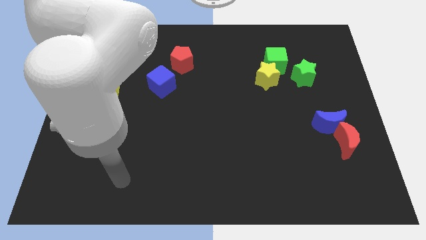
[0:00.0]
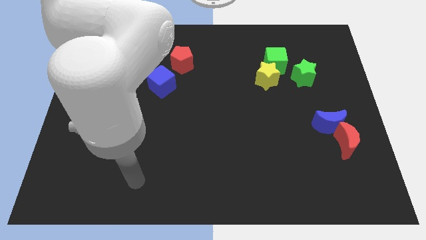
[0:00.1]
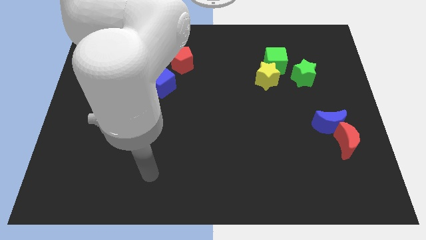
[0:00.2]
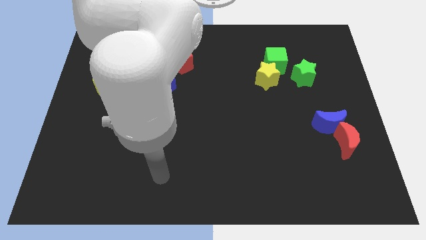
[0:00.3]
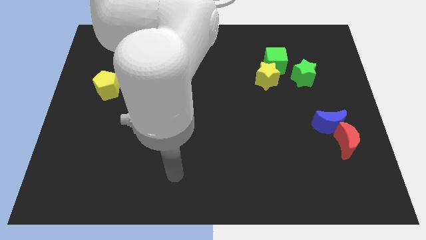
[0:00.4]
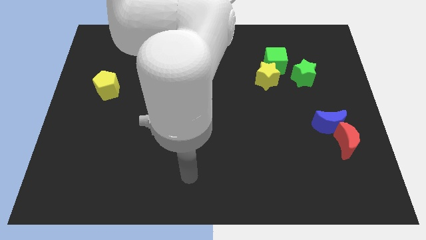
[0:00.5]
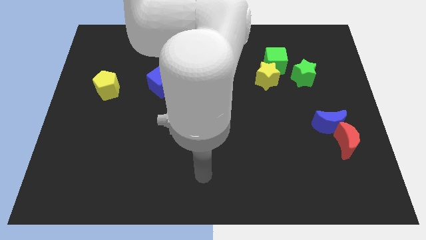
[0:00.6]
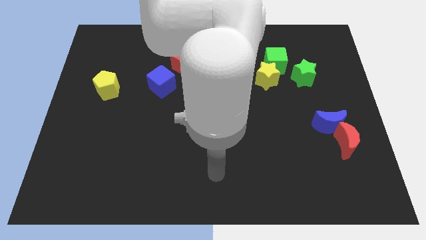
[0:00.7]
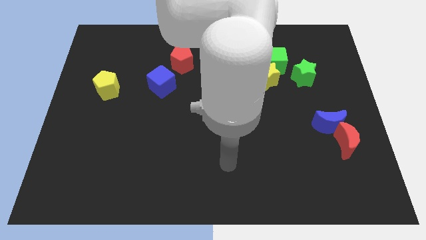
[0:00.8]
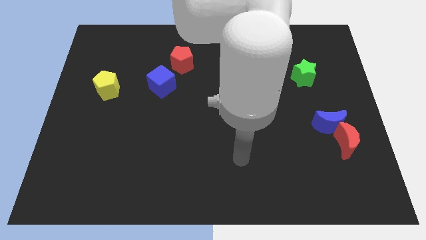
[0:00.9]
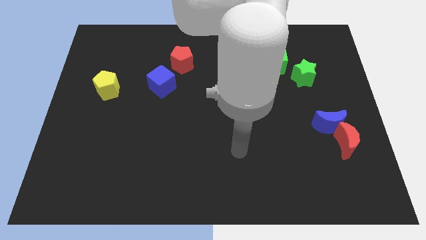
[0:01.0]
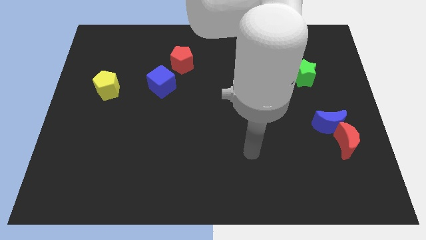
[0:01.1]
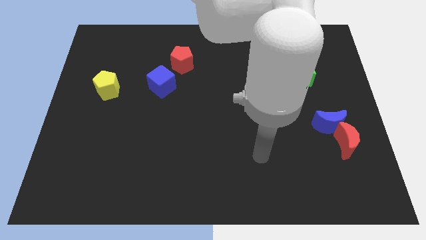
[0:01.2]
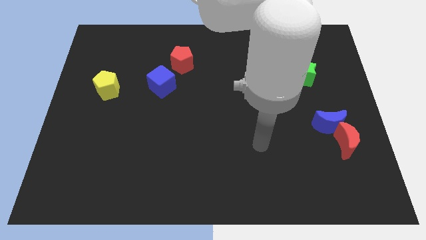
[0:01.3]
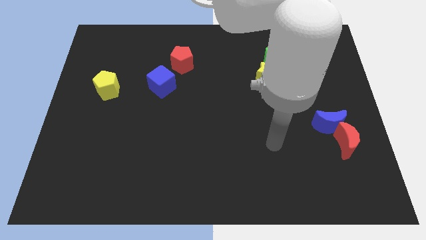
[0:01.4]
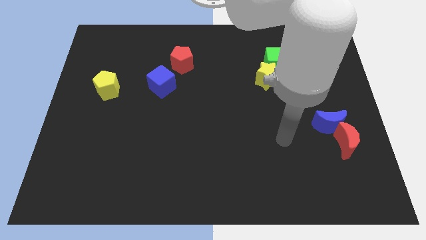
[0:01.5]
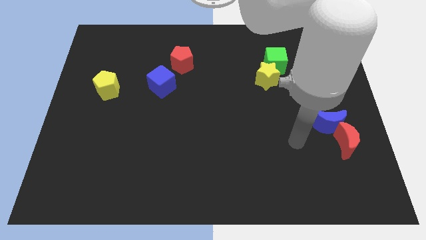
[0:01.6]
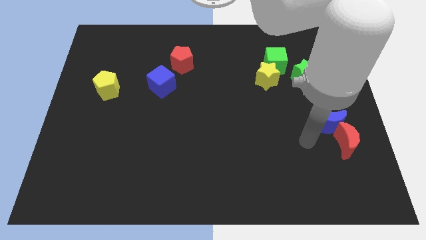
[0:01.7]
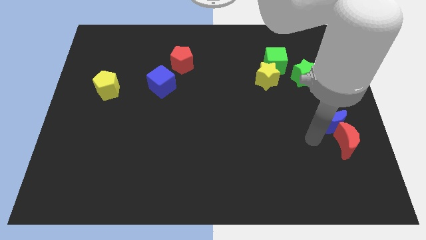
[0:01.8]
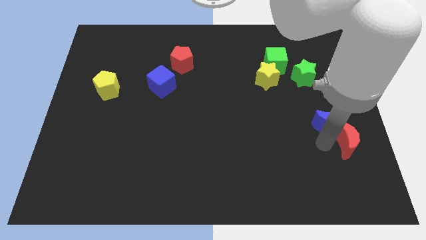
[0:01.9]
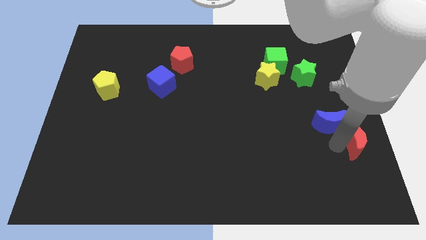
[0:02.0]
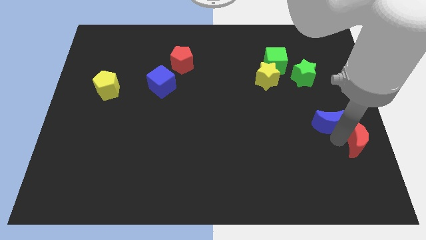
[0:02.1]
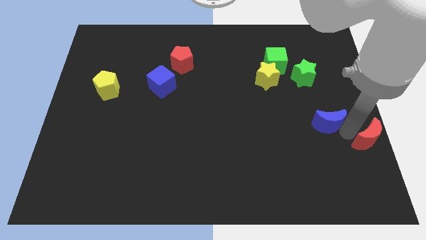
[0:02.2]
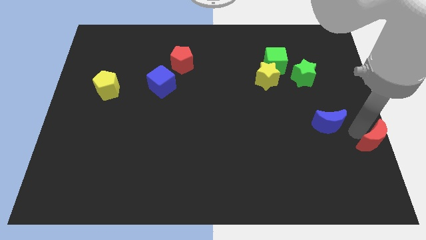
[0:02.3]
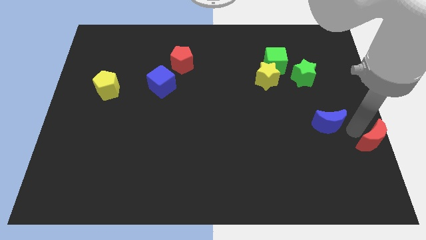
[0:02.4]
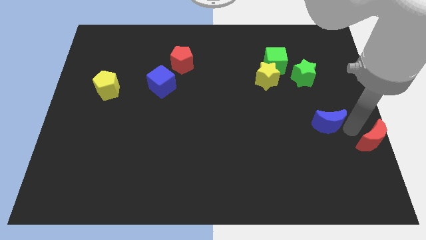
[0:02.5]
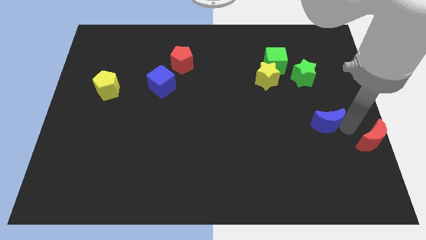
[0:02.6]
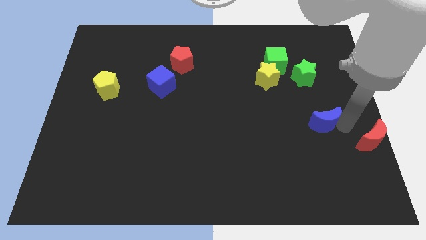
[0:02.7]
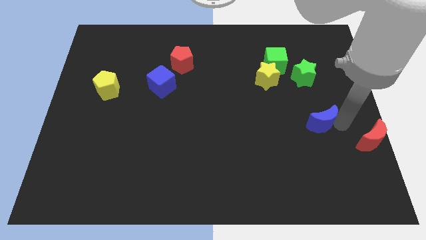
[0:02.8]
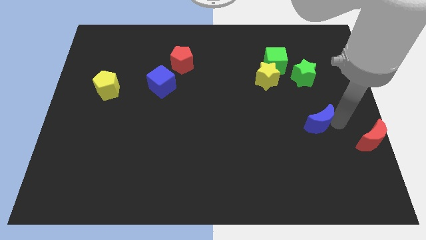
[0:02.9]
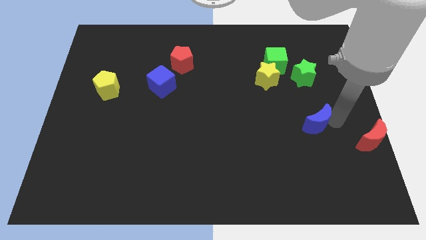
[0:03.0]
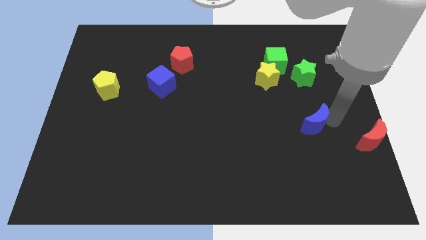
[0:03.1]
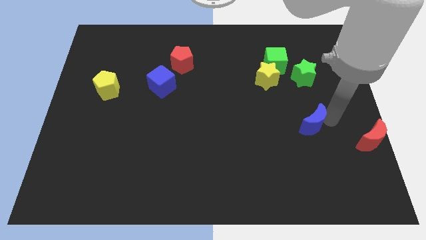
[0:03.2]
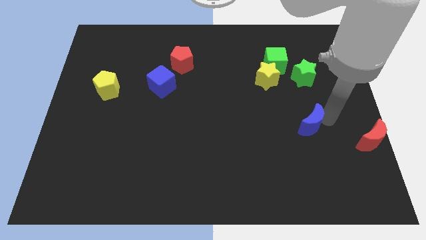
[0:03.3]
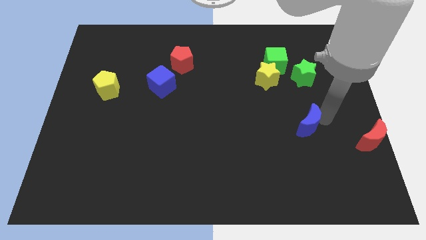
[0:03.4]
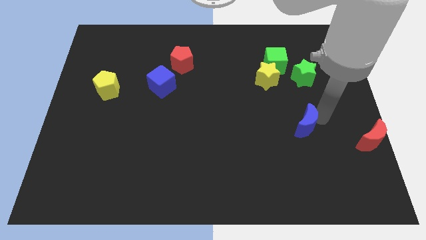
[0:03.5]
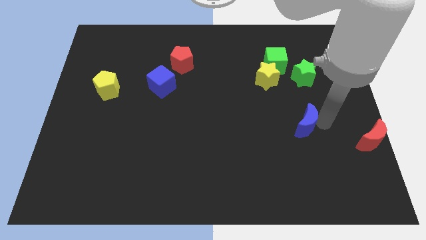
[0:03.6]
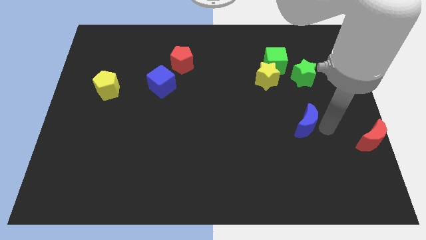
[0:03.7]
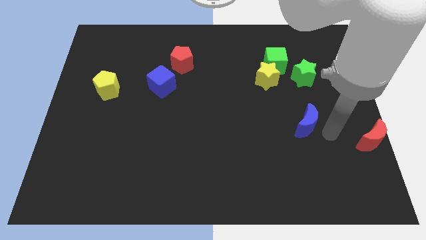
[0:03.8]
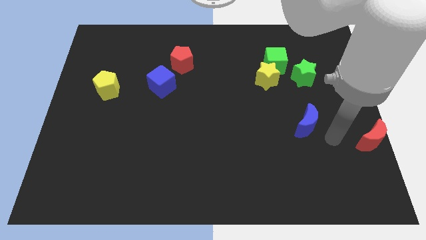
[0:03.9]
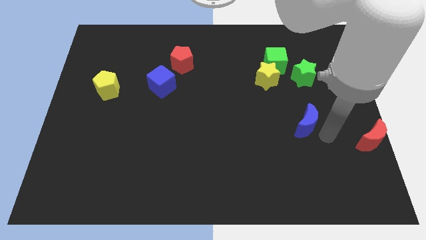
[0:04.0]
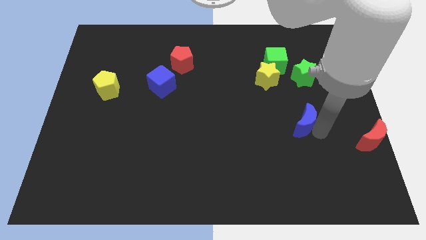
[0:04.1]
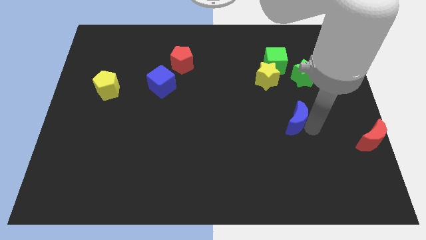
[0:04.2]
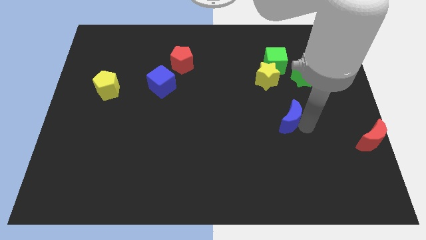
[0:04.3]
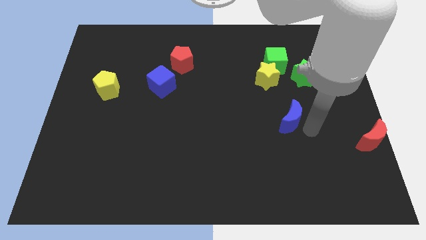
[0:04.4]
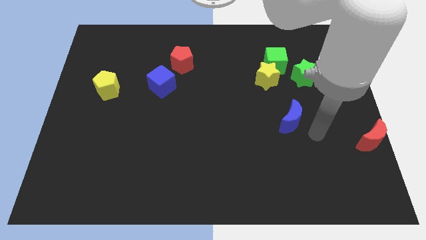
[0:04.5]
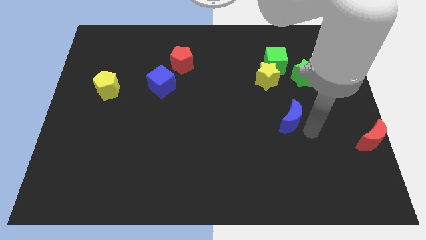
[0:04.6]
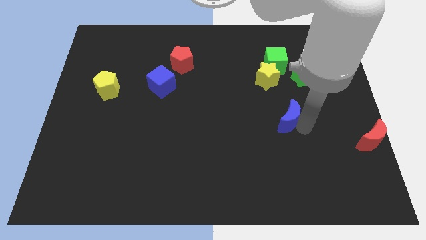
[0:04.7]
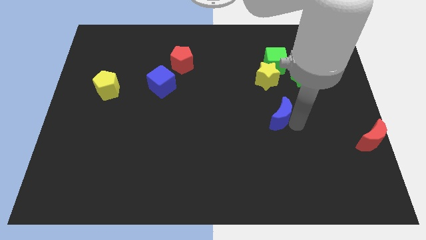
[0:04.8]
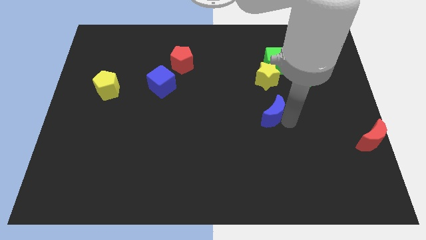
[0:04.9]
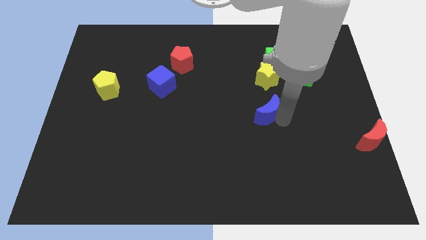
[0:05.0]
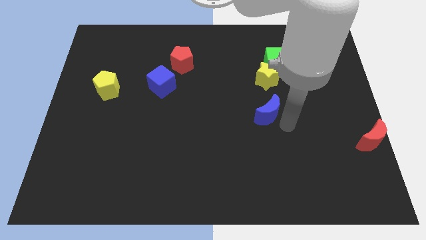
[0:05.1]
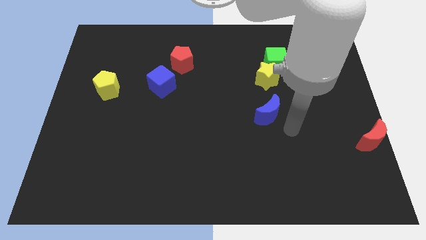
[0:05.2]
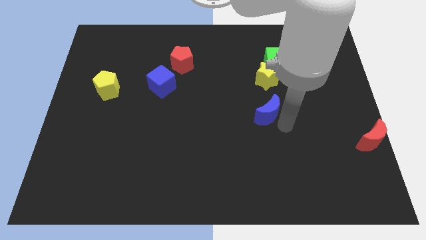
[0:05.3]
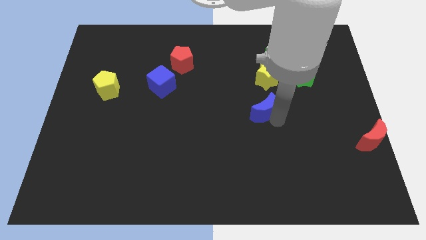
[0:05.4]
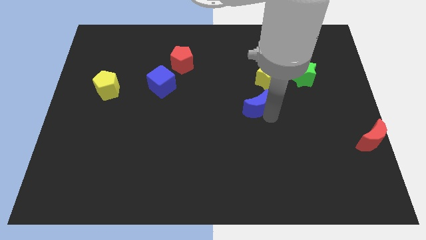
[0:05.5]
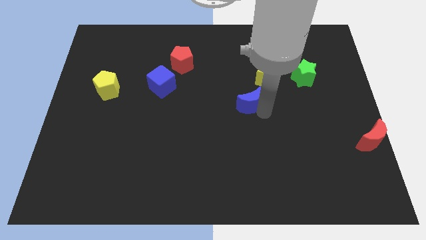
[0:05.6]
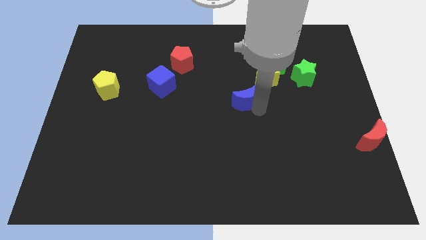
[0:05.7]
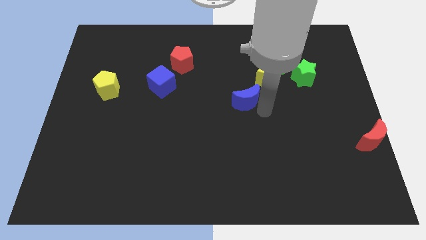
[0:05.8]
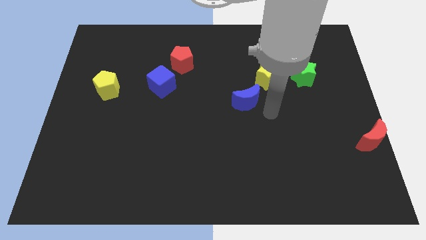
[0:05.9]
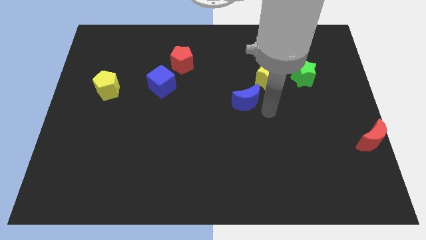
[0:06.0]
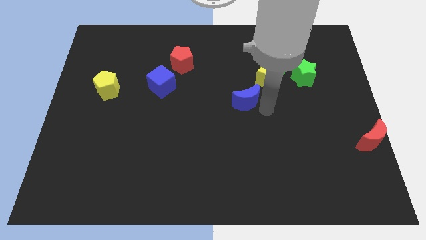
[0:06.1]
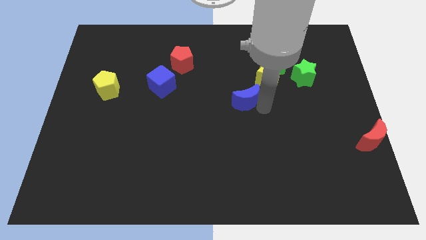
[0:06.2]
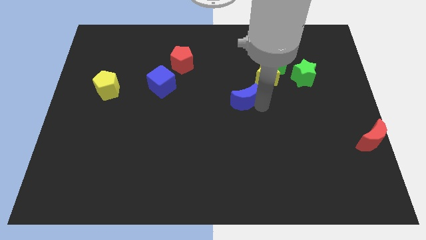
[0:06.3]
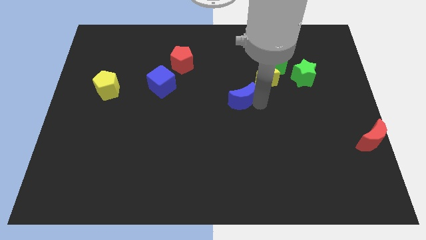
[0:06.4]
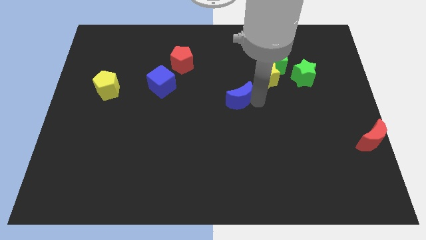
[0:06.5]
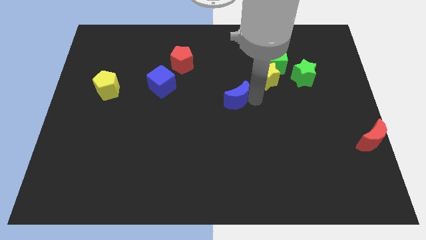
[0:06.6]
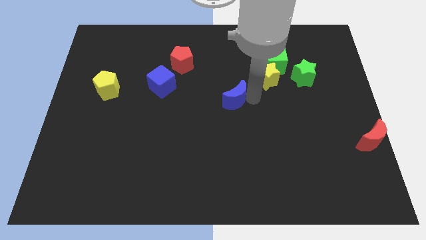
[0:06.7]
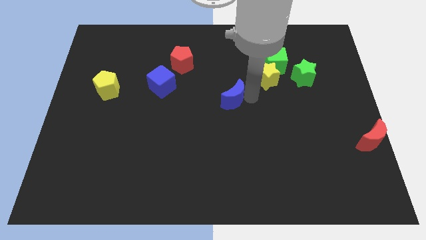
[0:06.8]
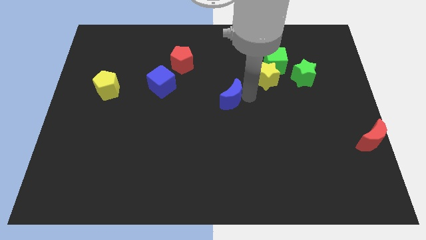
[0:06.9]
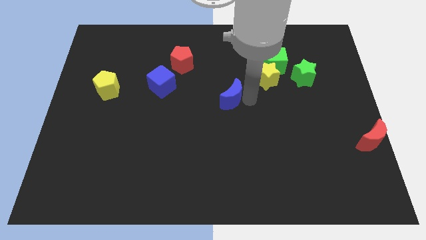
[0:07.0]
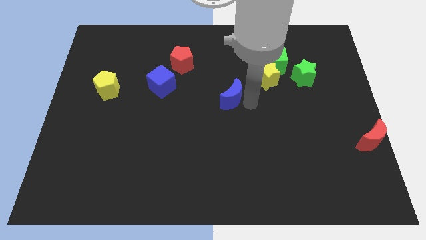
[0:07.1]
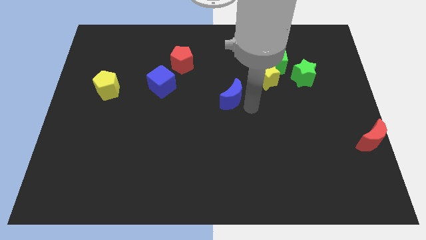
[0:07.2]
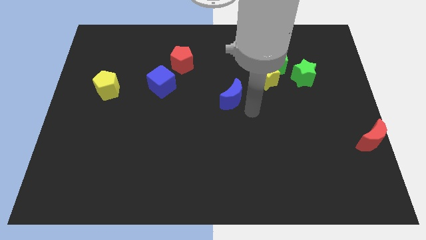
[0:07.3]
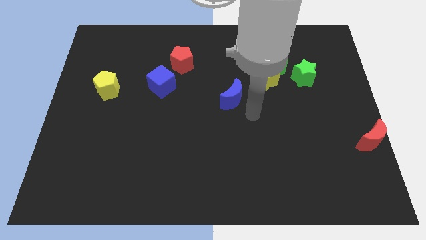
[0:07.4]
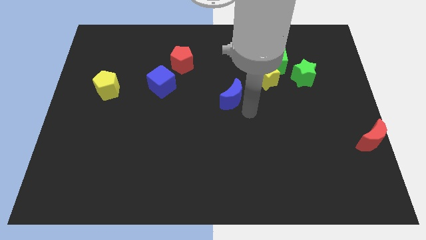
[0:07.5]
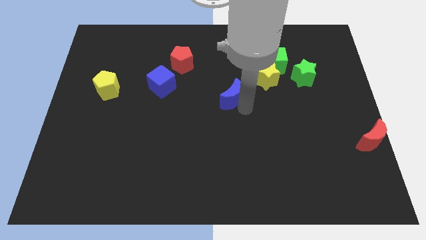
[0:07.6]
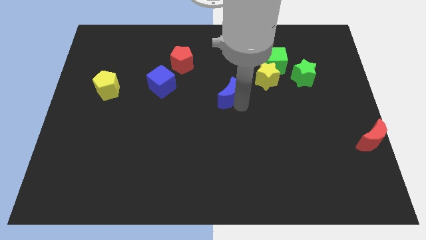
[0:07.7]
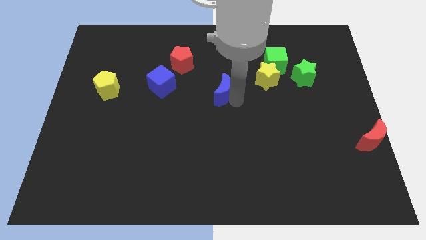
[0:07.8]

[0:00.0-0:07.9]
slide the blue moon to the right of the blue cube
